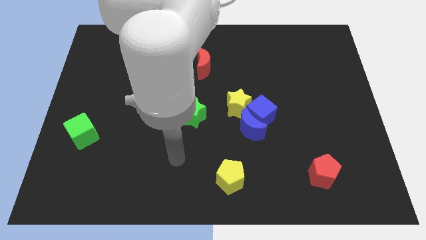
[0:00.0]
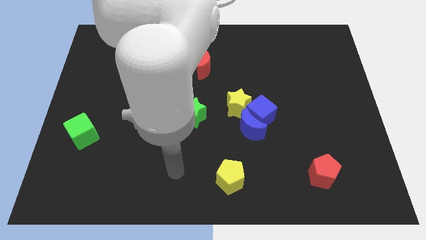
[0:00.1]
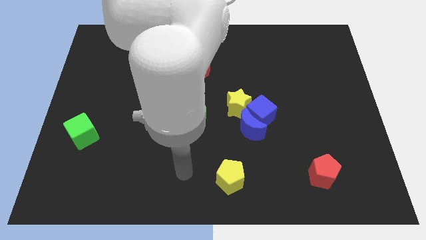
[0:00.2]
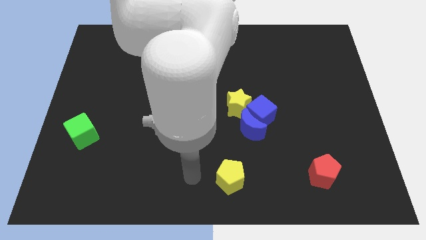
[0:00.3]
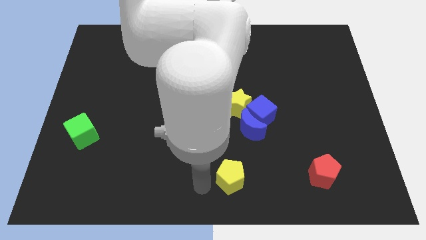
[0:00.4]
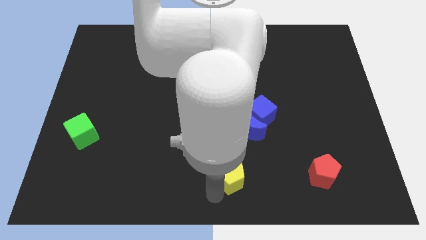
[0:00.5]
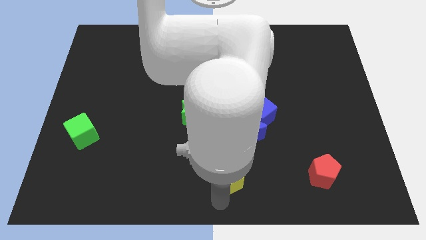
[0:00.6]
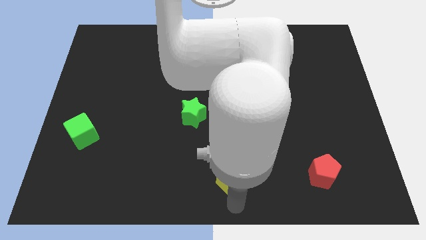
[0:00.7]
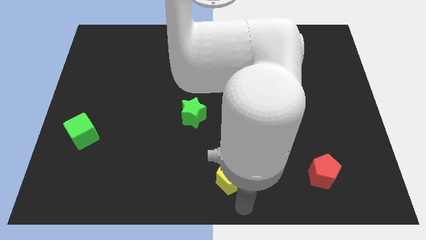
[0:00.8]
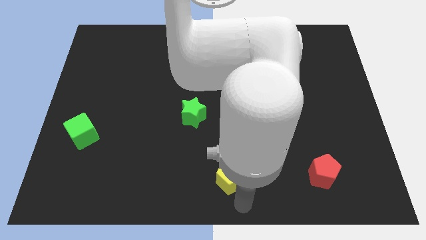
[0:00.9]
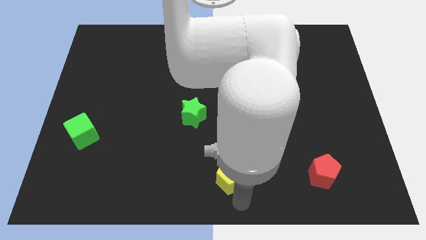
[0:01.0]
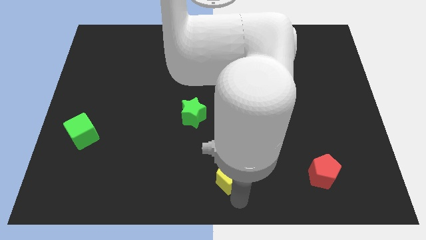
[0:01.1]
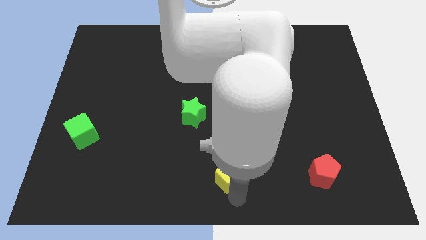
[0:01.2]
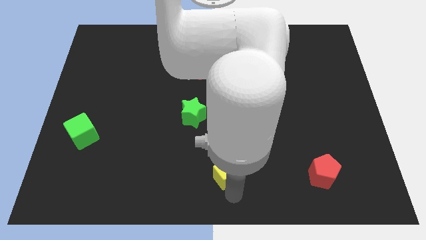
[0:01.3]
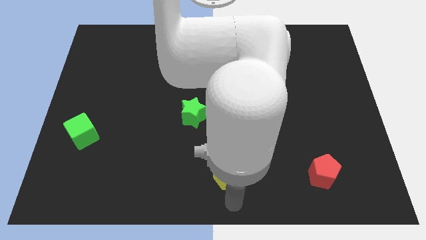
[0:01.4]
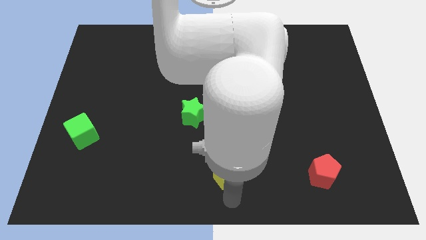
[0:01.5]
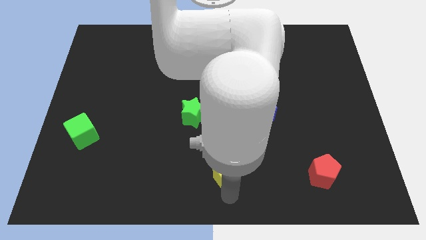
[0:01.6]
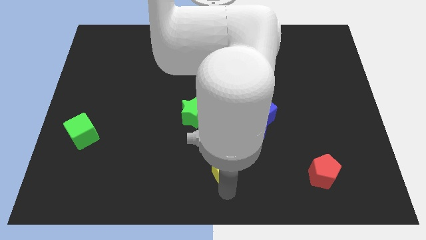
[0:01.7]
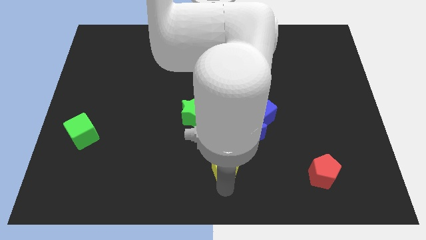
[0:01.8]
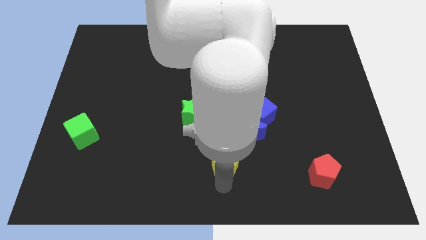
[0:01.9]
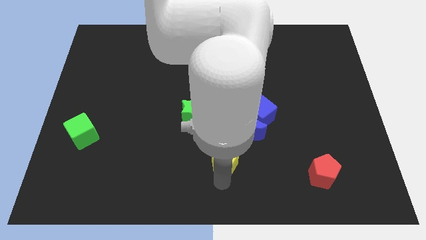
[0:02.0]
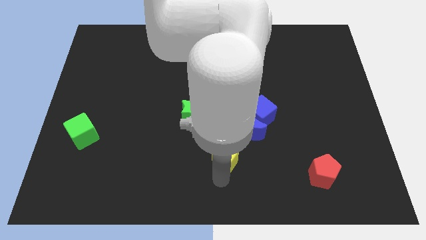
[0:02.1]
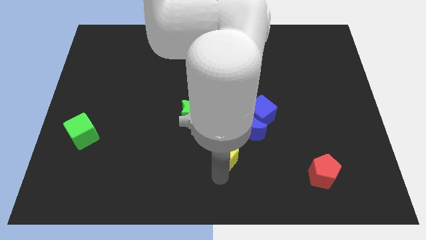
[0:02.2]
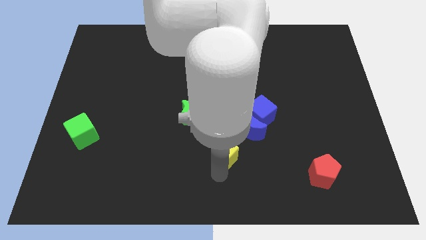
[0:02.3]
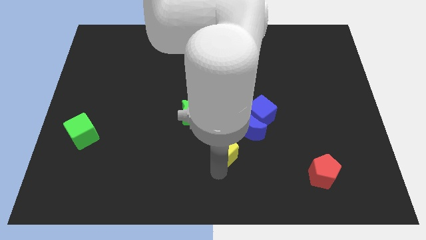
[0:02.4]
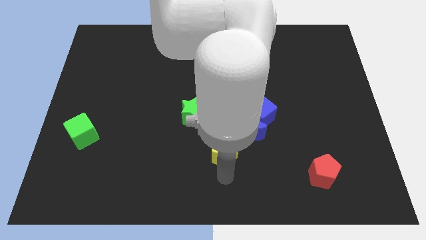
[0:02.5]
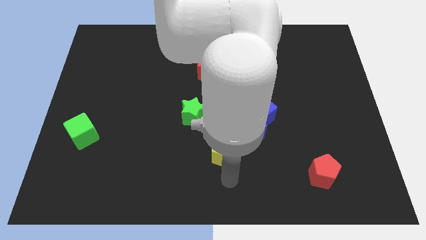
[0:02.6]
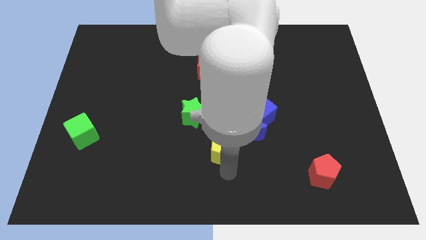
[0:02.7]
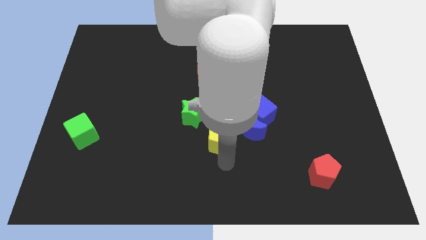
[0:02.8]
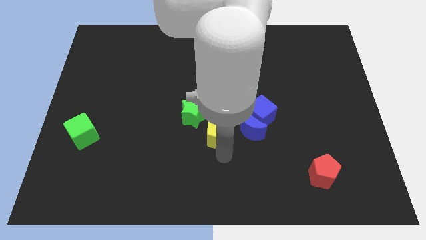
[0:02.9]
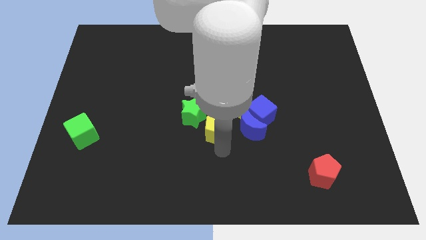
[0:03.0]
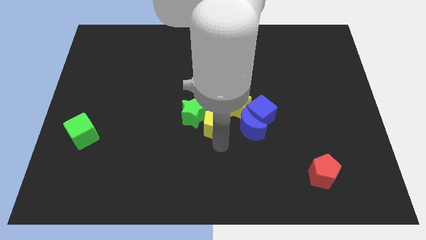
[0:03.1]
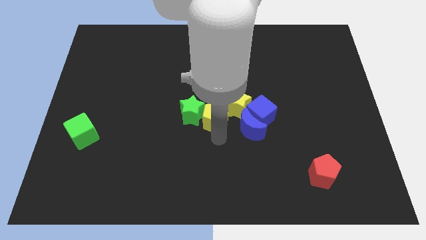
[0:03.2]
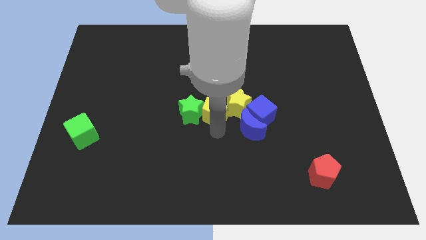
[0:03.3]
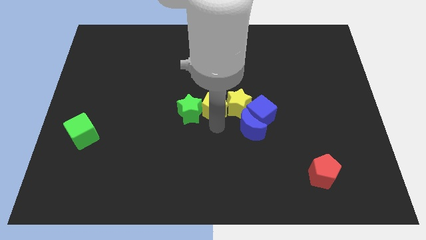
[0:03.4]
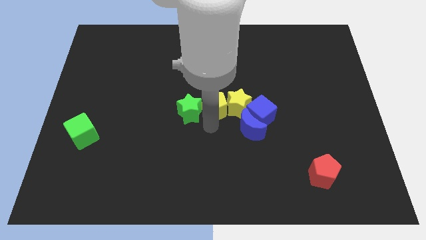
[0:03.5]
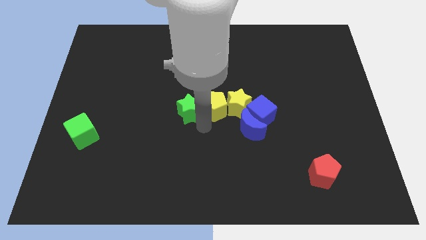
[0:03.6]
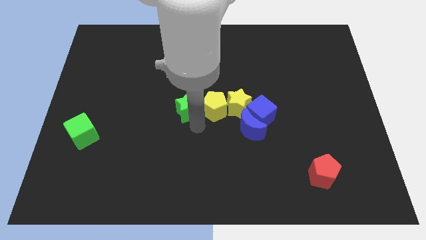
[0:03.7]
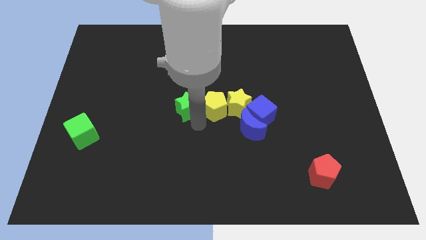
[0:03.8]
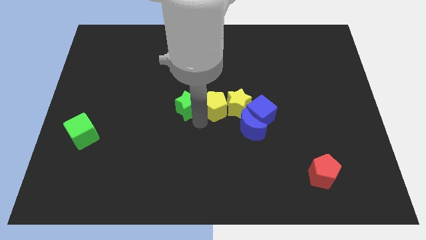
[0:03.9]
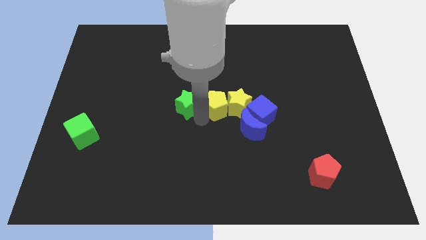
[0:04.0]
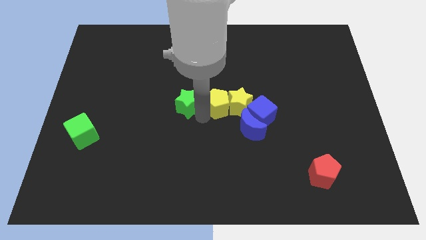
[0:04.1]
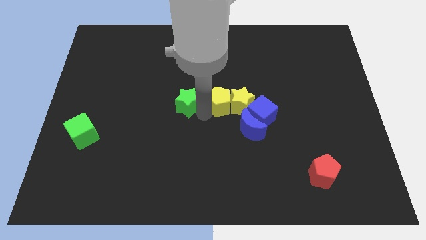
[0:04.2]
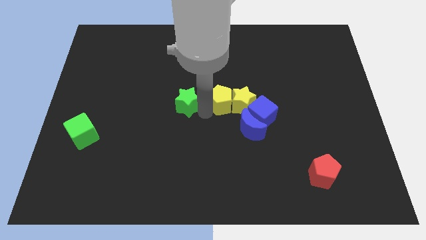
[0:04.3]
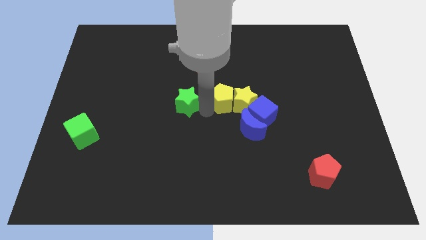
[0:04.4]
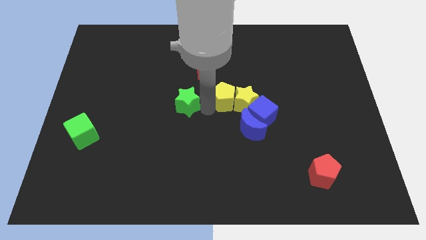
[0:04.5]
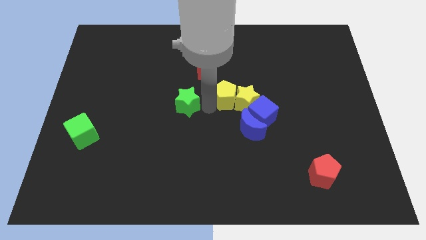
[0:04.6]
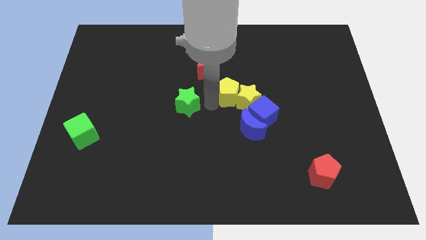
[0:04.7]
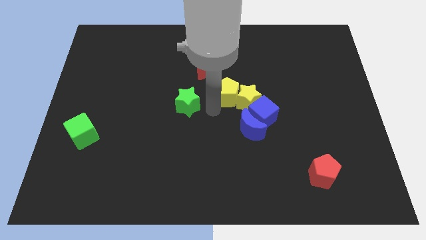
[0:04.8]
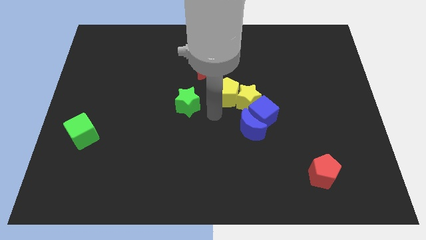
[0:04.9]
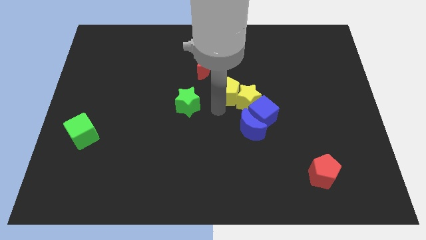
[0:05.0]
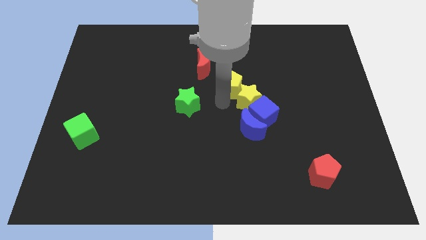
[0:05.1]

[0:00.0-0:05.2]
push the yellow pentagon above the yellow star

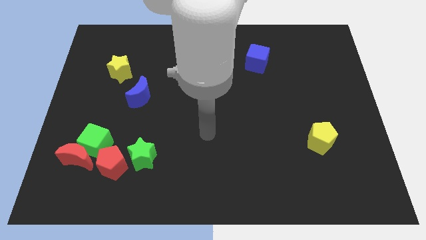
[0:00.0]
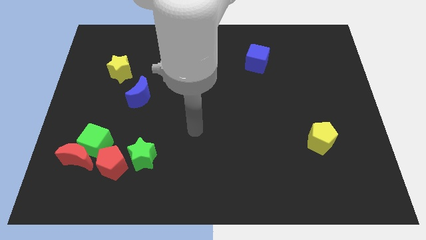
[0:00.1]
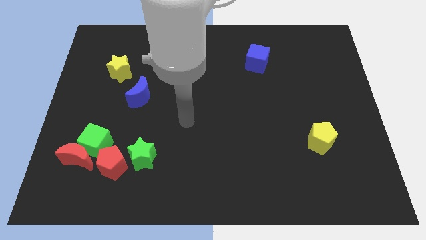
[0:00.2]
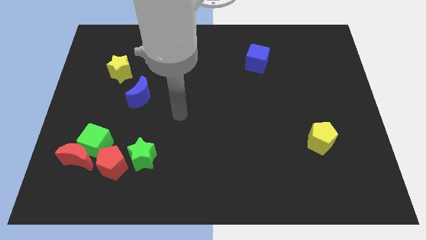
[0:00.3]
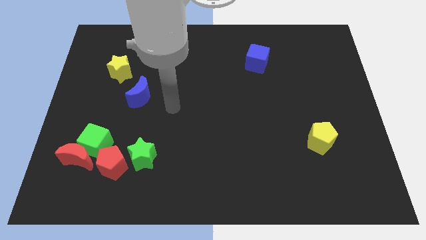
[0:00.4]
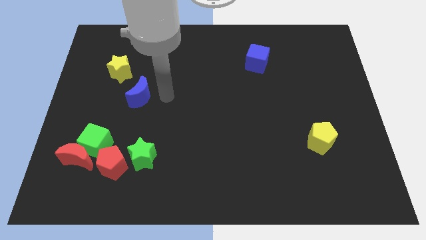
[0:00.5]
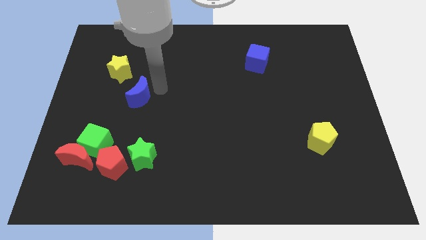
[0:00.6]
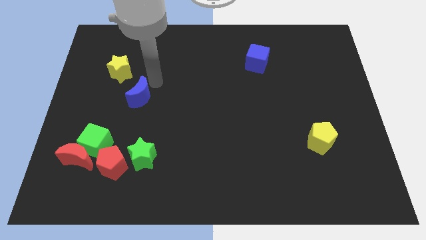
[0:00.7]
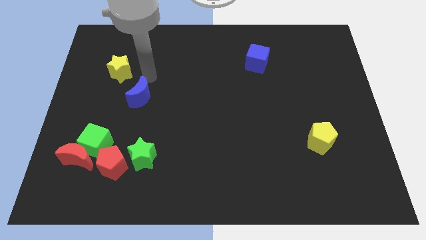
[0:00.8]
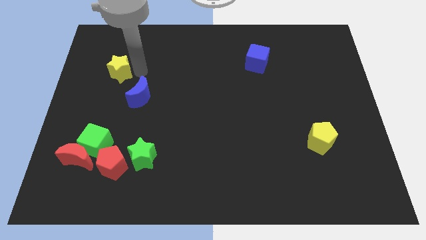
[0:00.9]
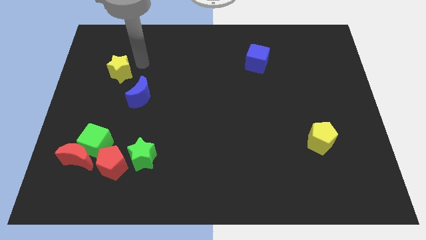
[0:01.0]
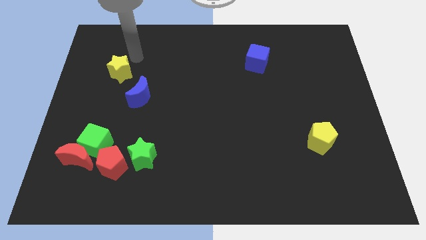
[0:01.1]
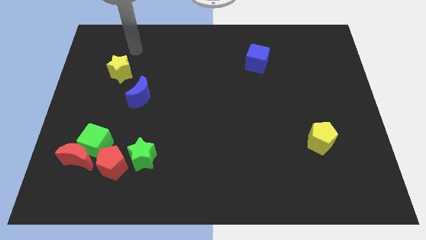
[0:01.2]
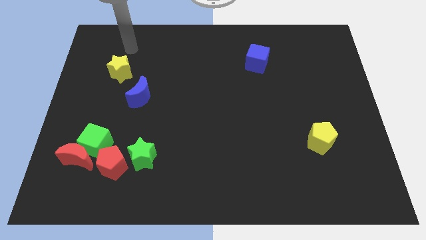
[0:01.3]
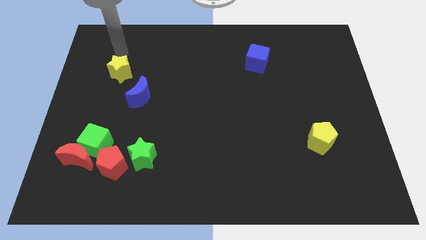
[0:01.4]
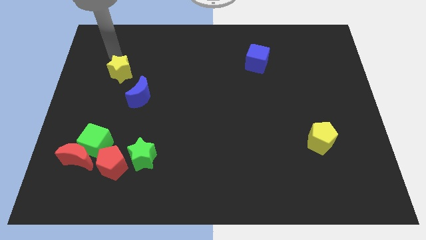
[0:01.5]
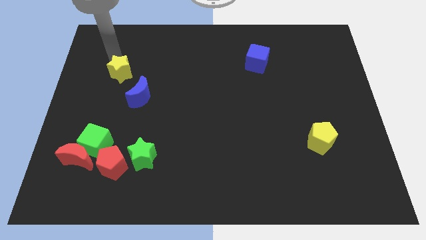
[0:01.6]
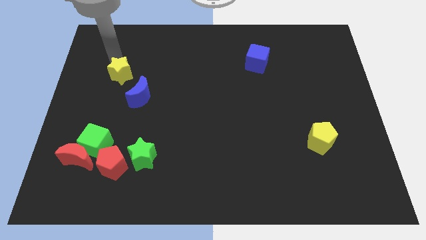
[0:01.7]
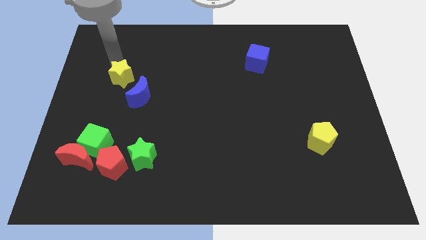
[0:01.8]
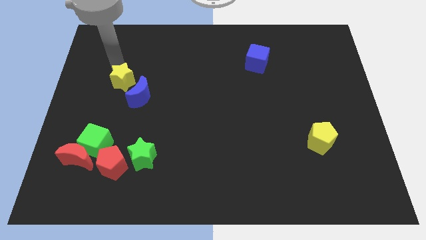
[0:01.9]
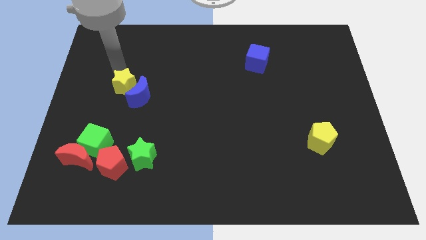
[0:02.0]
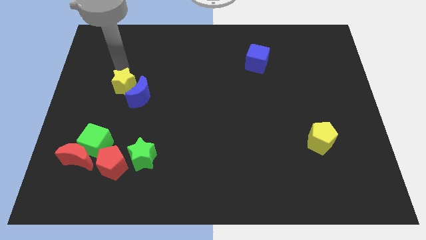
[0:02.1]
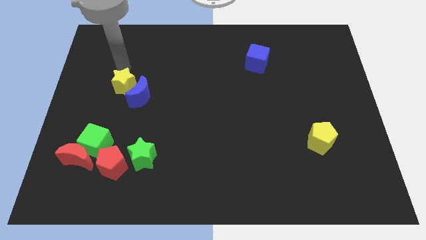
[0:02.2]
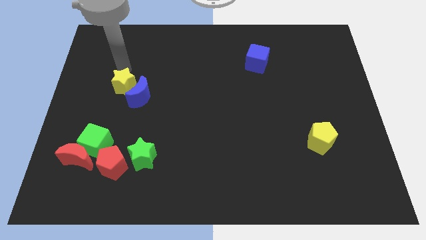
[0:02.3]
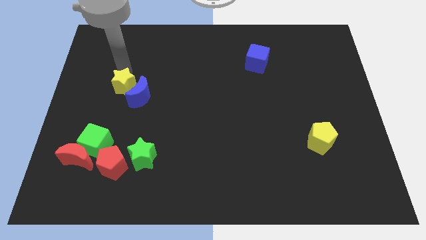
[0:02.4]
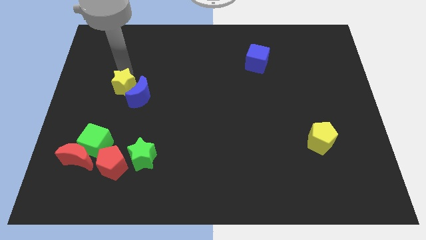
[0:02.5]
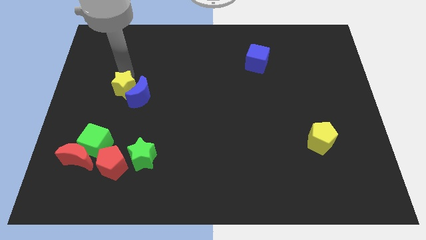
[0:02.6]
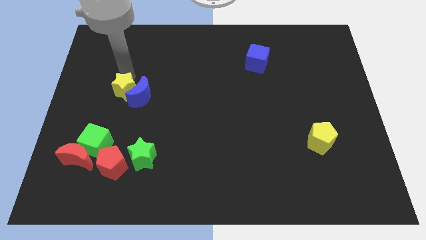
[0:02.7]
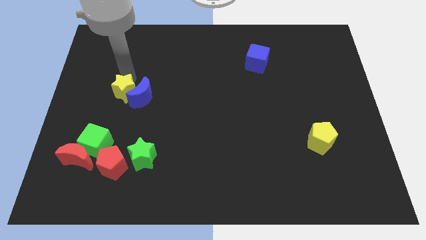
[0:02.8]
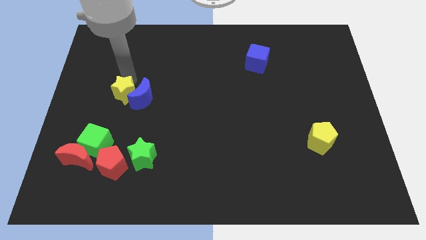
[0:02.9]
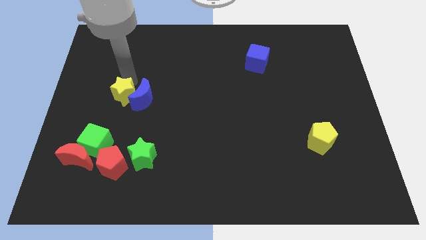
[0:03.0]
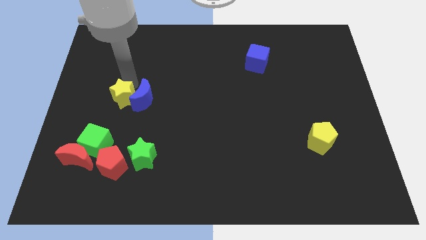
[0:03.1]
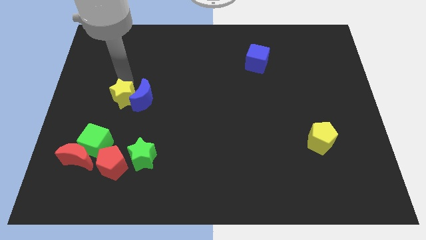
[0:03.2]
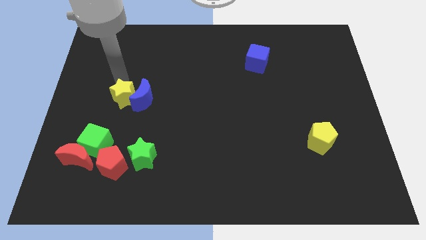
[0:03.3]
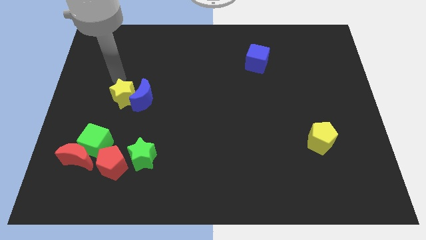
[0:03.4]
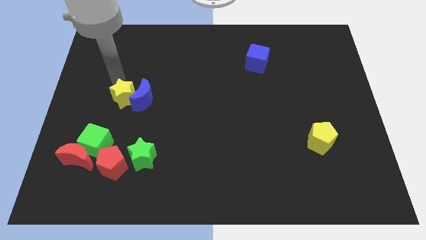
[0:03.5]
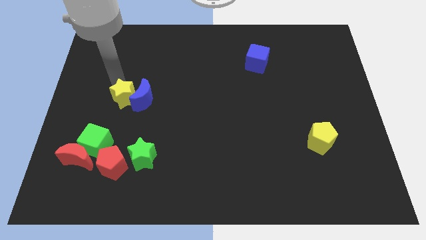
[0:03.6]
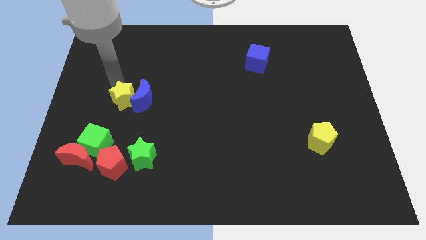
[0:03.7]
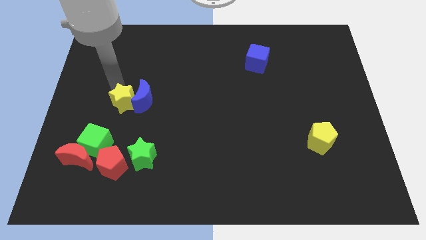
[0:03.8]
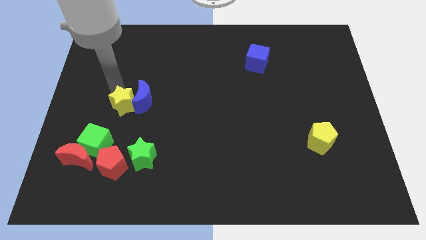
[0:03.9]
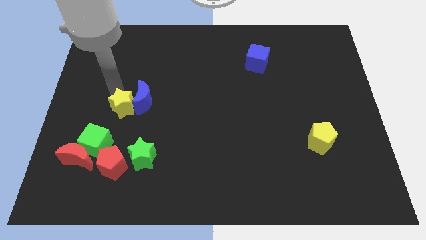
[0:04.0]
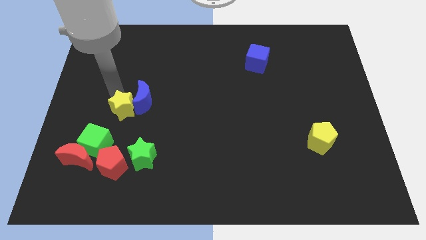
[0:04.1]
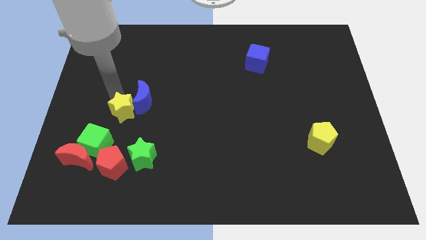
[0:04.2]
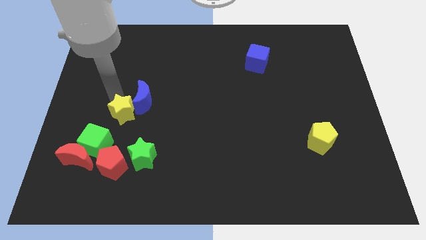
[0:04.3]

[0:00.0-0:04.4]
push the yellow star to the bottom side of the blue moon
